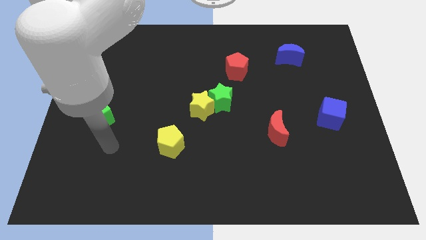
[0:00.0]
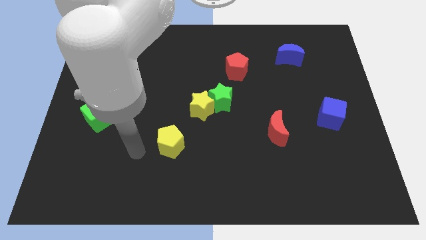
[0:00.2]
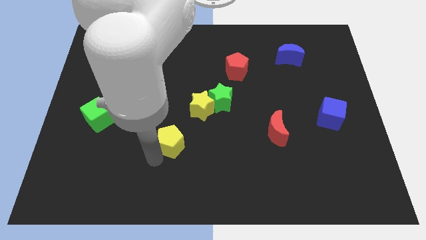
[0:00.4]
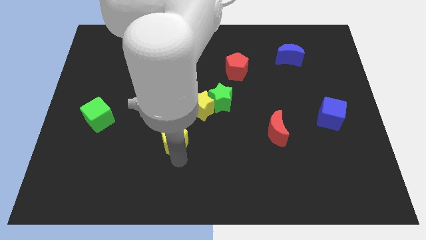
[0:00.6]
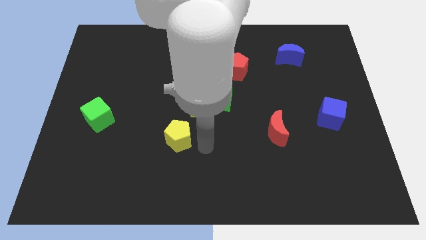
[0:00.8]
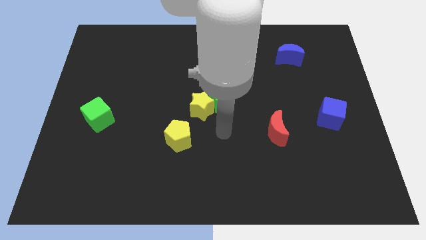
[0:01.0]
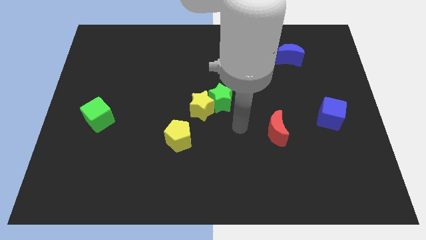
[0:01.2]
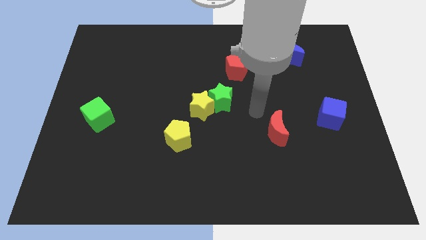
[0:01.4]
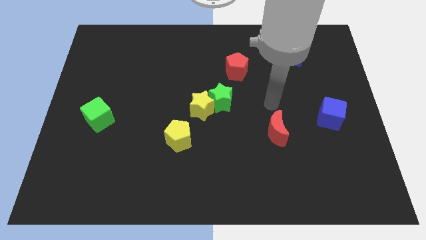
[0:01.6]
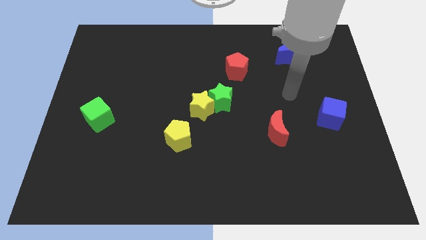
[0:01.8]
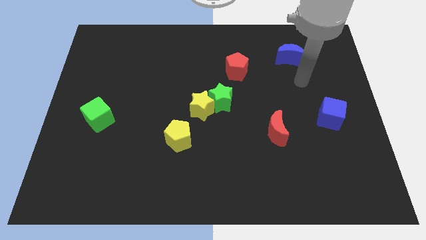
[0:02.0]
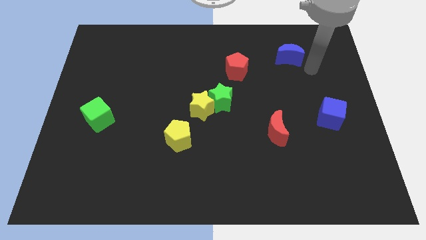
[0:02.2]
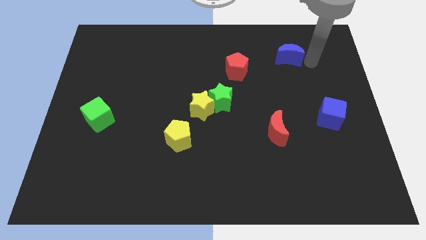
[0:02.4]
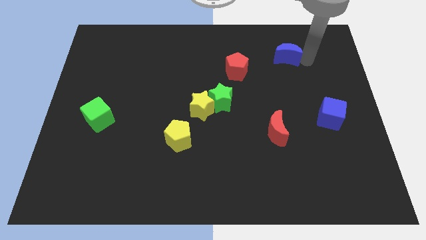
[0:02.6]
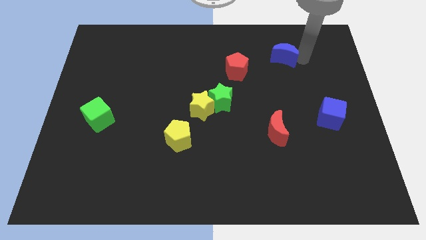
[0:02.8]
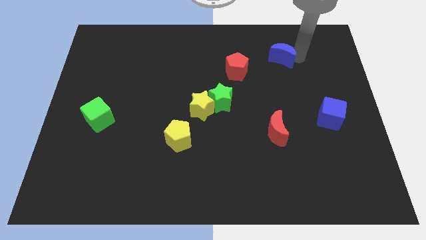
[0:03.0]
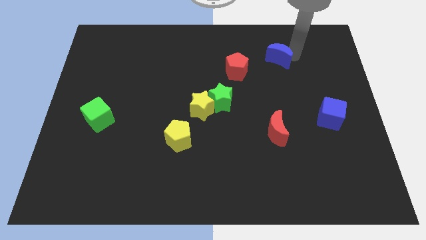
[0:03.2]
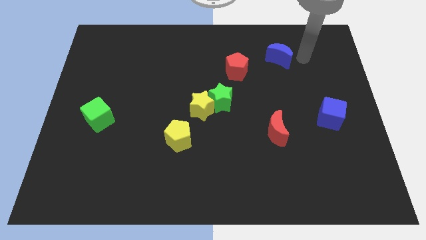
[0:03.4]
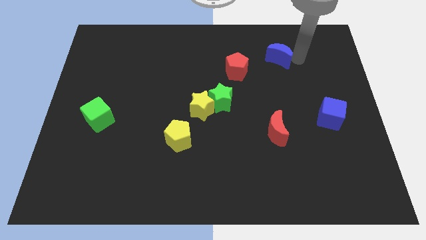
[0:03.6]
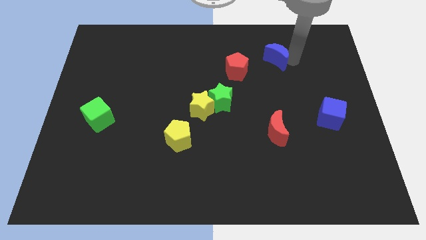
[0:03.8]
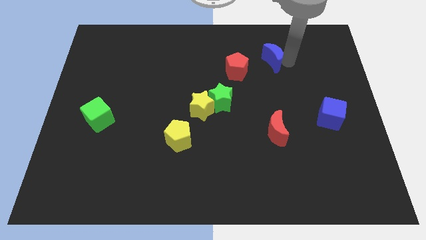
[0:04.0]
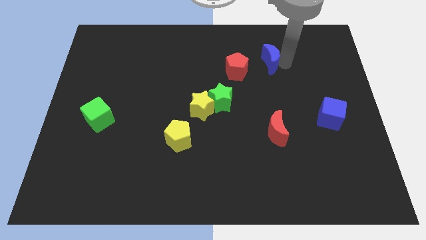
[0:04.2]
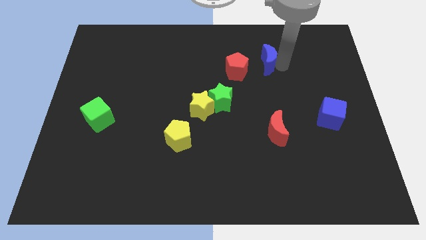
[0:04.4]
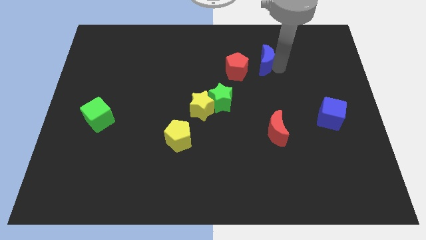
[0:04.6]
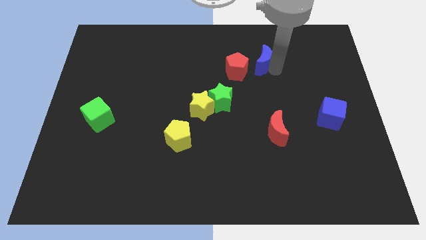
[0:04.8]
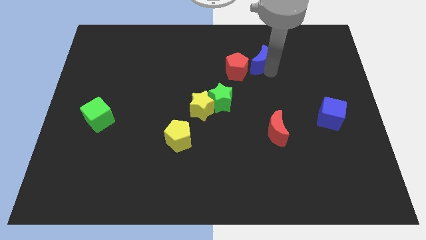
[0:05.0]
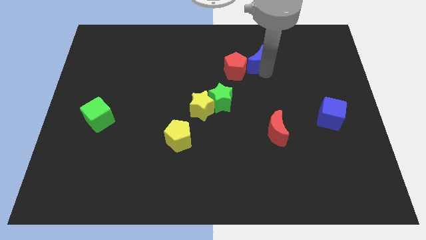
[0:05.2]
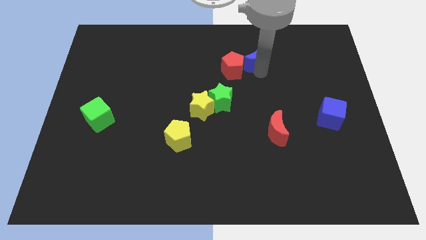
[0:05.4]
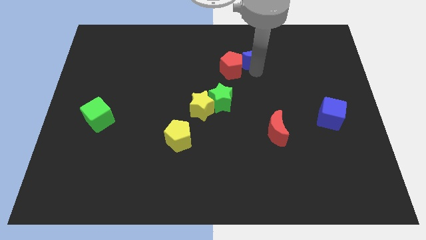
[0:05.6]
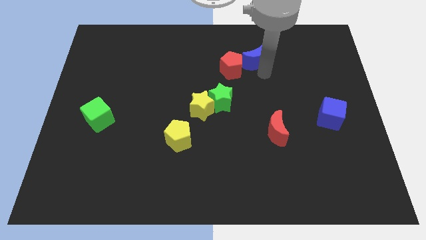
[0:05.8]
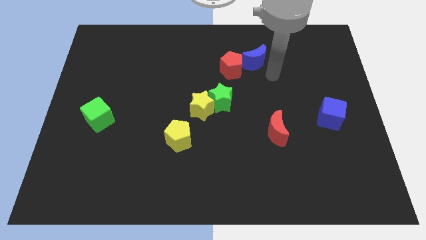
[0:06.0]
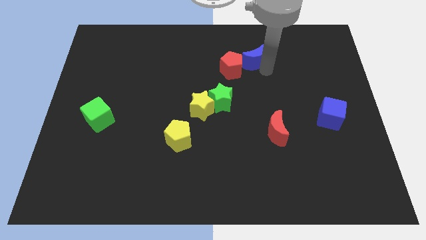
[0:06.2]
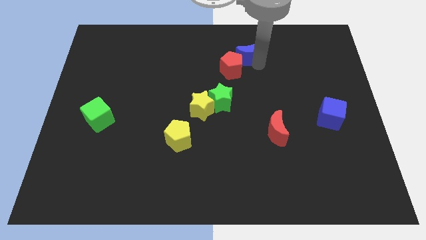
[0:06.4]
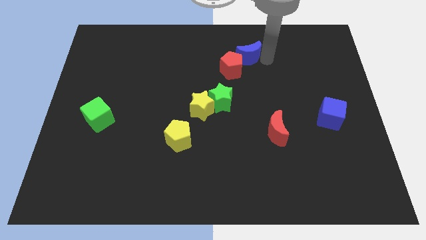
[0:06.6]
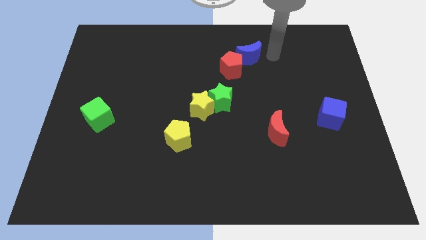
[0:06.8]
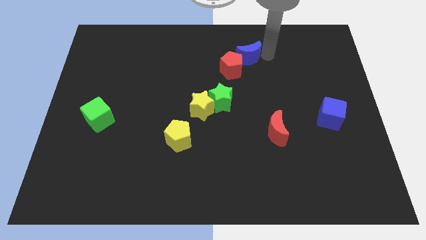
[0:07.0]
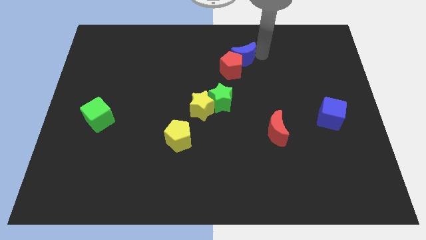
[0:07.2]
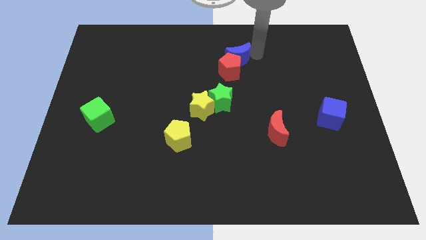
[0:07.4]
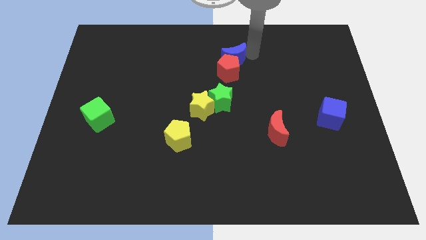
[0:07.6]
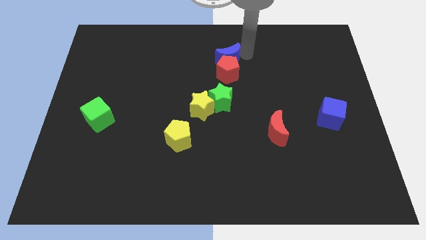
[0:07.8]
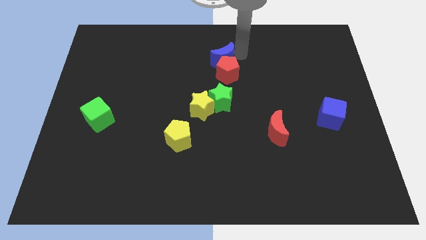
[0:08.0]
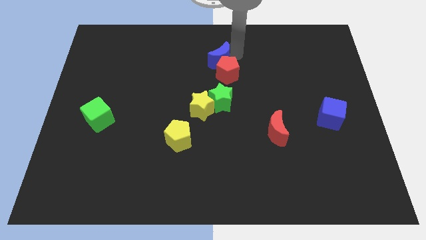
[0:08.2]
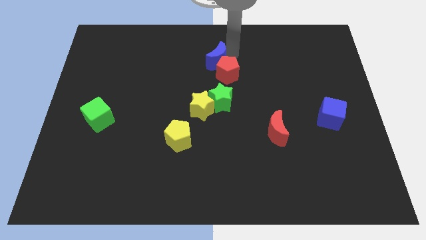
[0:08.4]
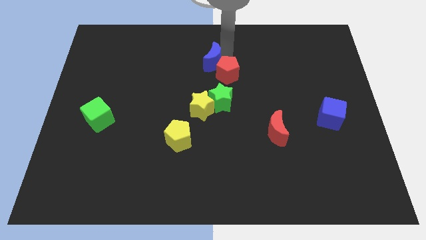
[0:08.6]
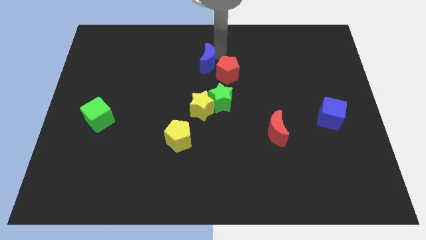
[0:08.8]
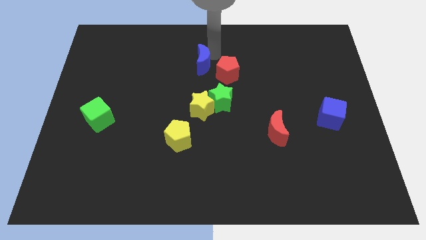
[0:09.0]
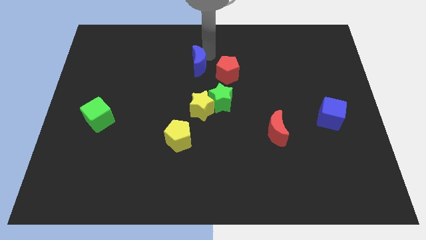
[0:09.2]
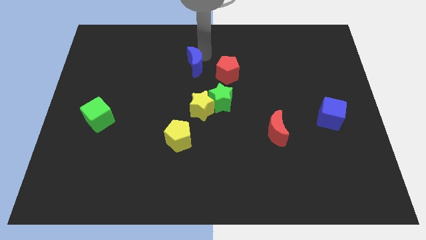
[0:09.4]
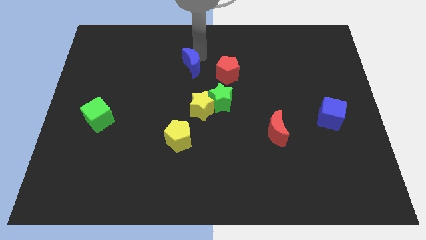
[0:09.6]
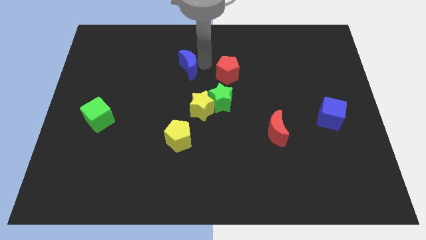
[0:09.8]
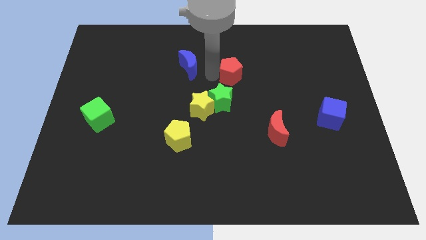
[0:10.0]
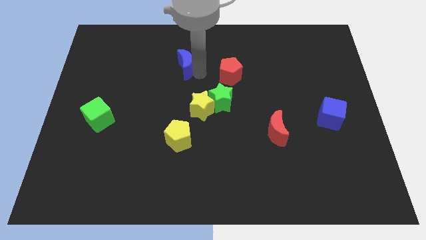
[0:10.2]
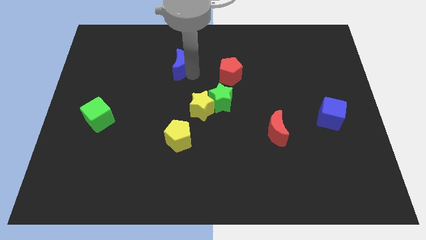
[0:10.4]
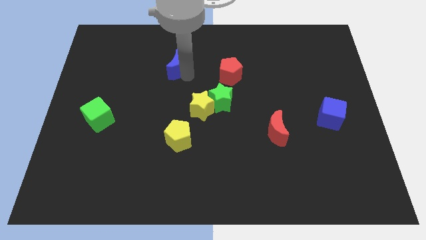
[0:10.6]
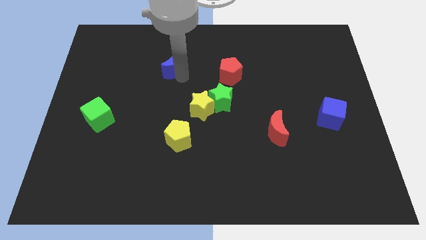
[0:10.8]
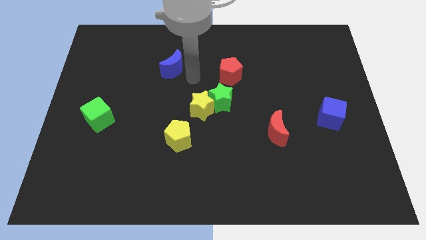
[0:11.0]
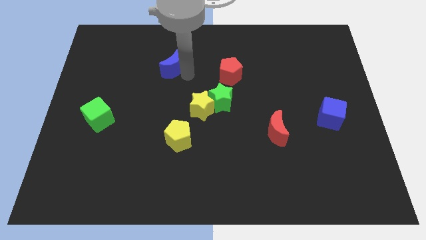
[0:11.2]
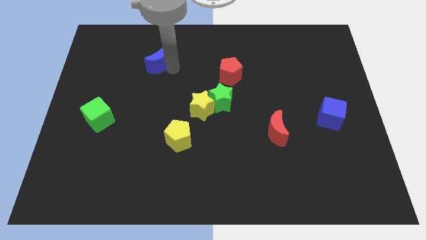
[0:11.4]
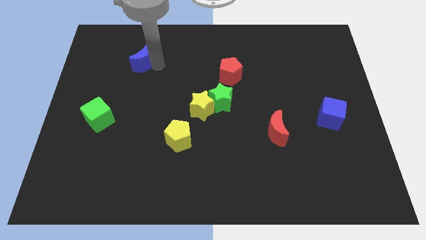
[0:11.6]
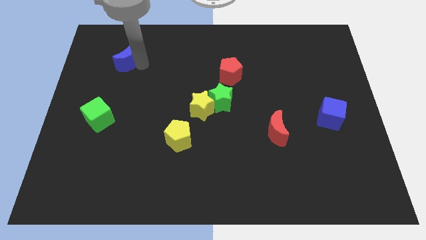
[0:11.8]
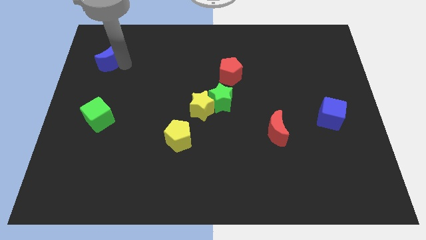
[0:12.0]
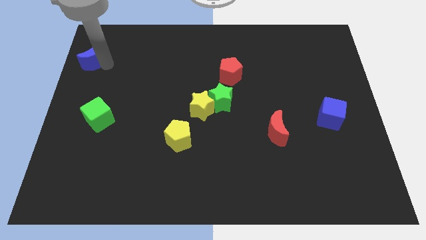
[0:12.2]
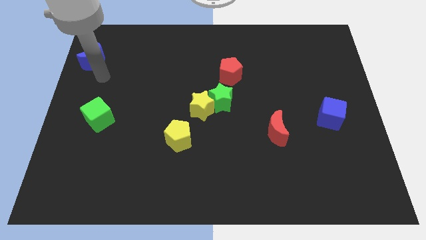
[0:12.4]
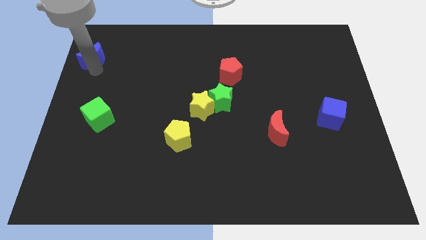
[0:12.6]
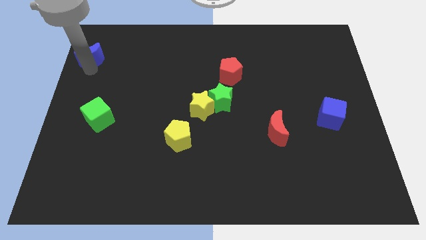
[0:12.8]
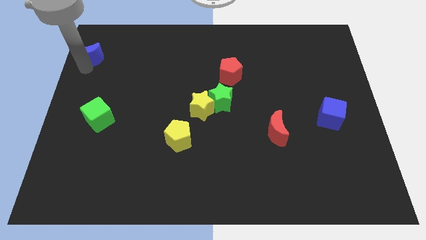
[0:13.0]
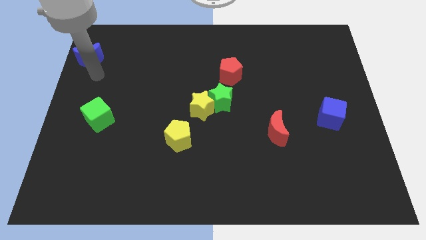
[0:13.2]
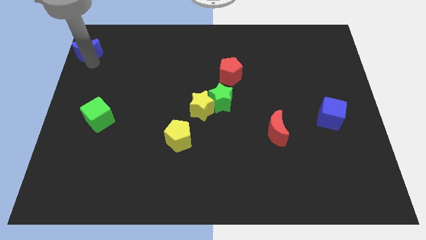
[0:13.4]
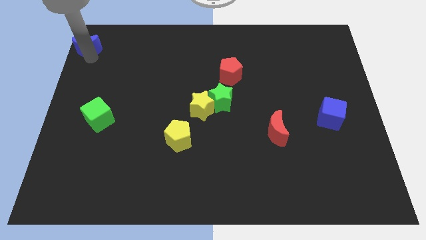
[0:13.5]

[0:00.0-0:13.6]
slide the blue moon to the top left of the board
